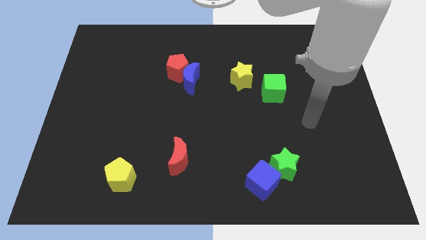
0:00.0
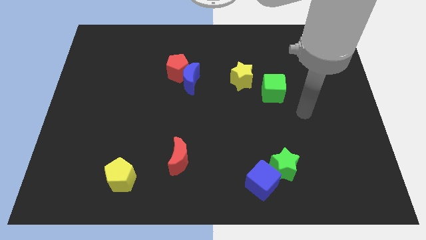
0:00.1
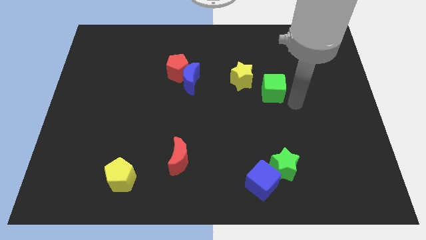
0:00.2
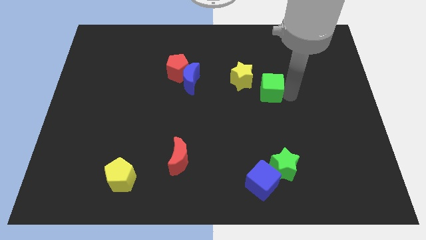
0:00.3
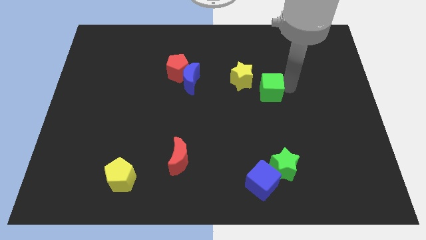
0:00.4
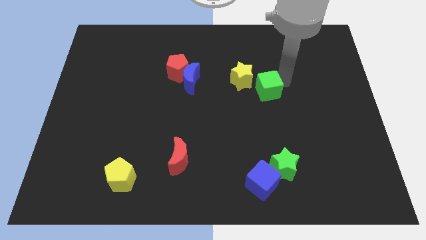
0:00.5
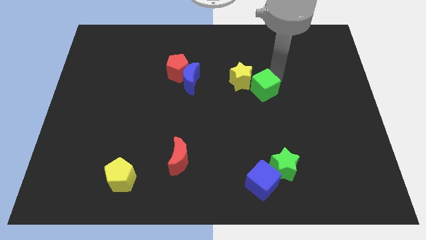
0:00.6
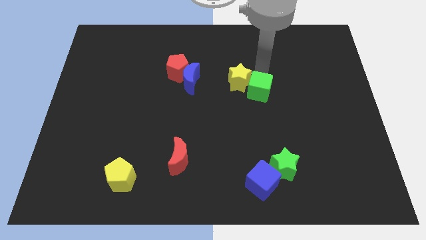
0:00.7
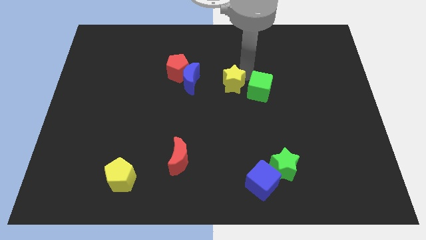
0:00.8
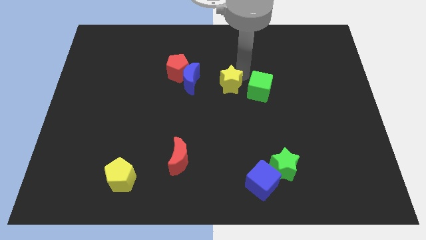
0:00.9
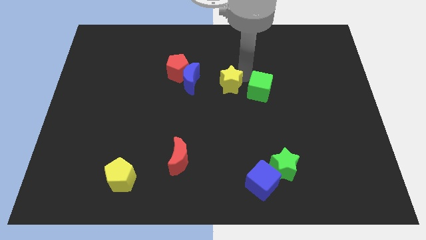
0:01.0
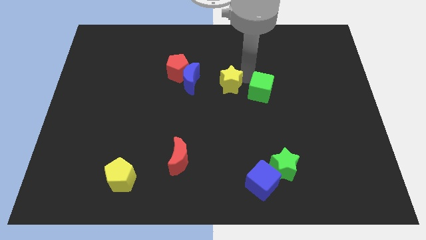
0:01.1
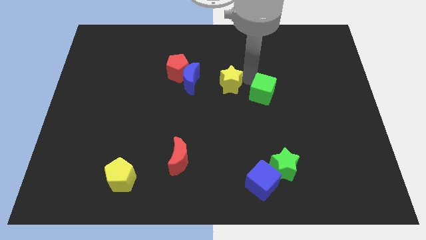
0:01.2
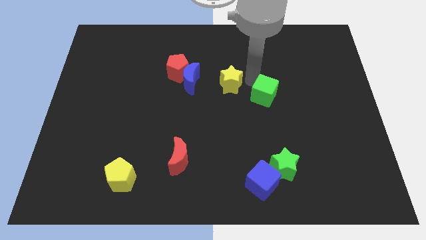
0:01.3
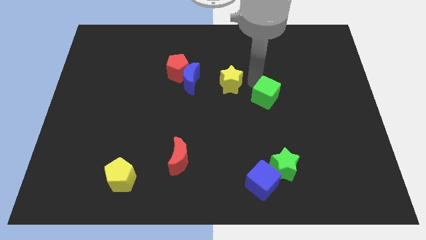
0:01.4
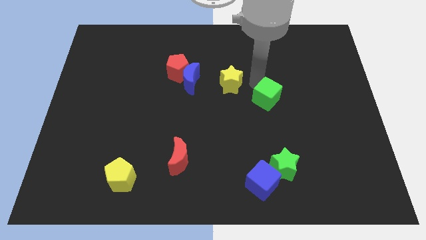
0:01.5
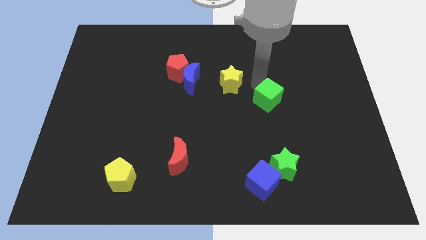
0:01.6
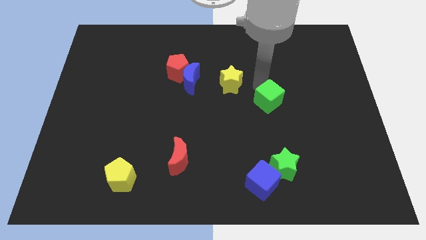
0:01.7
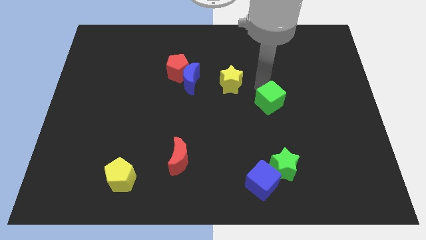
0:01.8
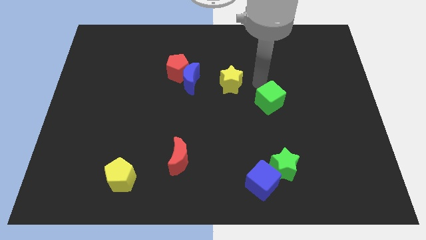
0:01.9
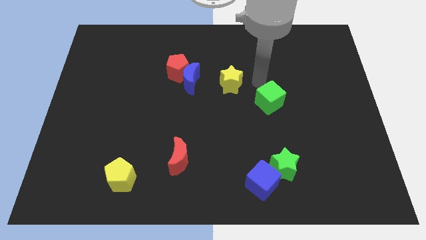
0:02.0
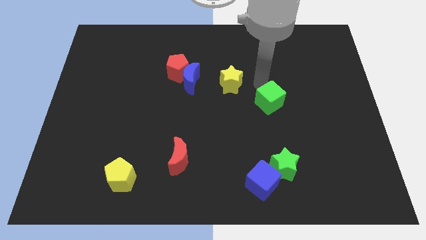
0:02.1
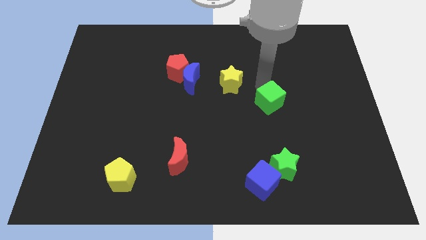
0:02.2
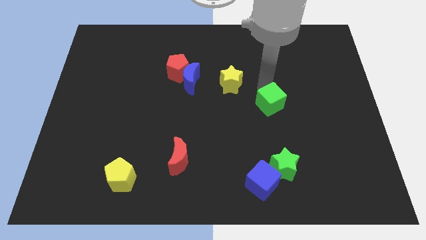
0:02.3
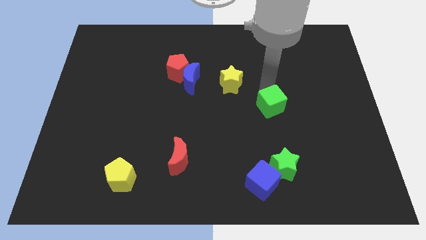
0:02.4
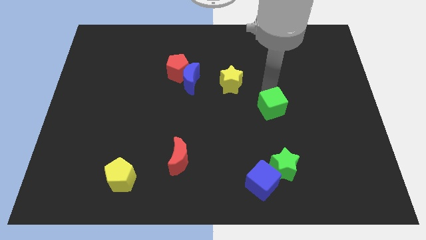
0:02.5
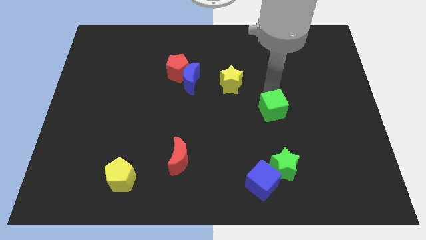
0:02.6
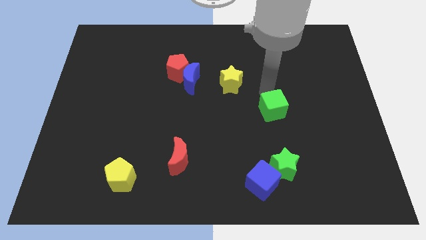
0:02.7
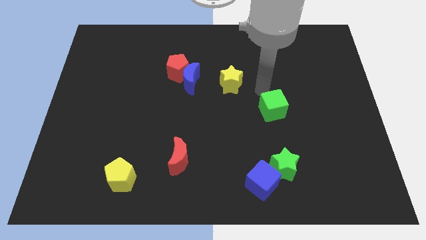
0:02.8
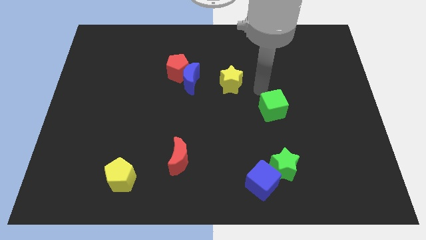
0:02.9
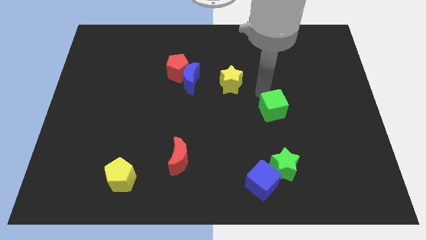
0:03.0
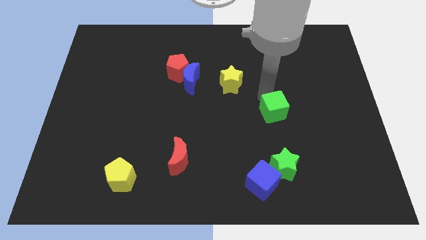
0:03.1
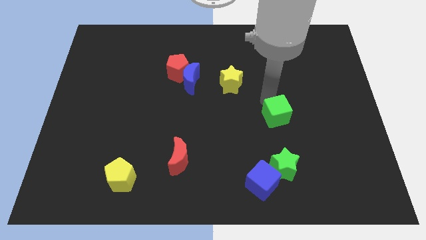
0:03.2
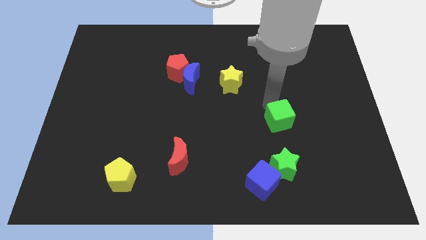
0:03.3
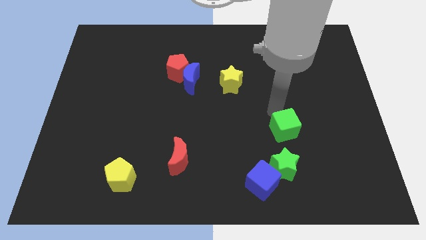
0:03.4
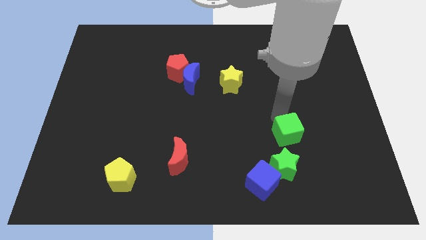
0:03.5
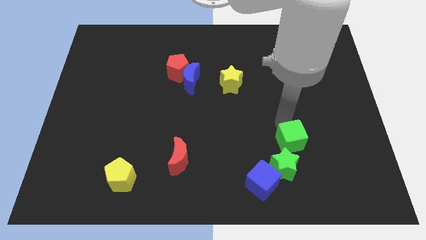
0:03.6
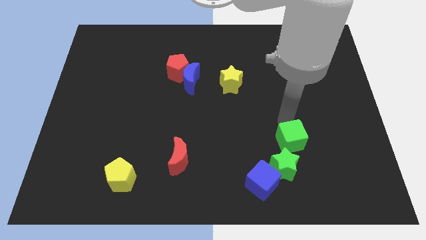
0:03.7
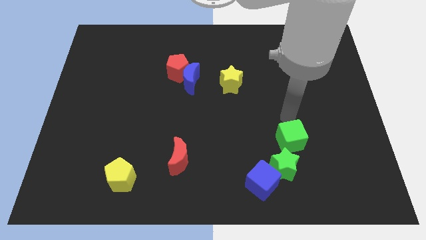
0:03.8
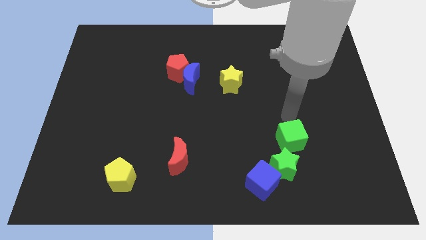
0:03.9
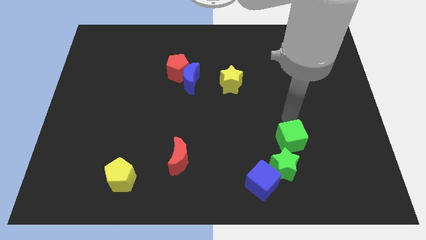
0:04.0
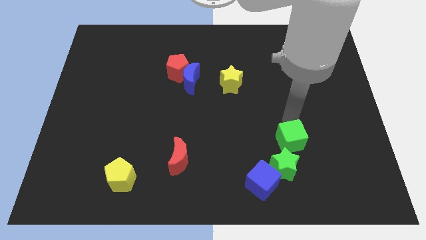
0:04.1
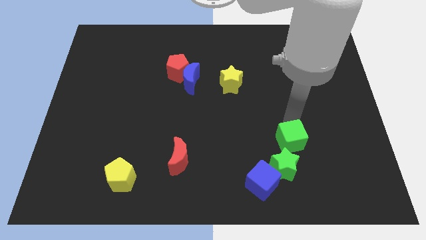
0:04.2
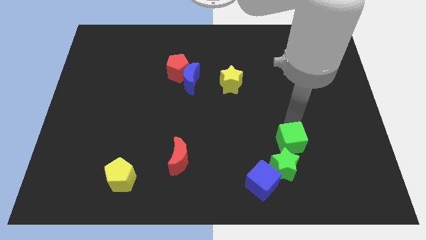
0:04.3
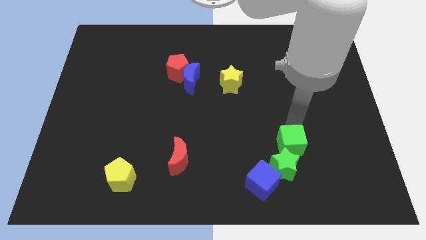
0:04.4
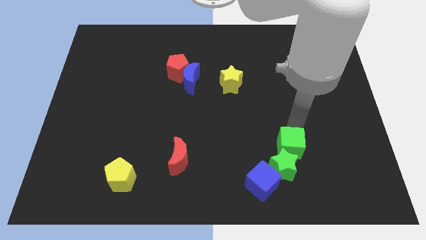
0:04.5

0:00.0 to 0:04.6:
move the green cube next to the green star

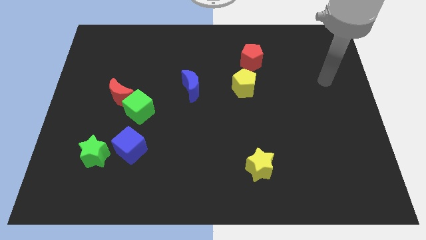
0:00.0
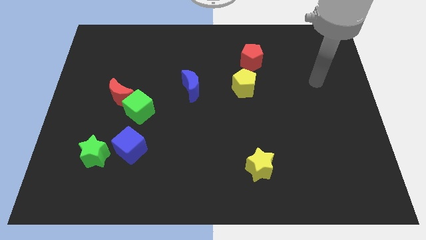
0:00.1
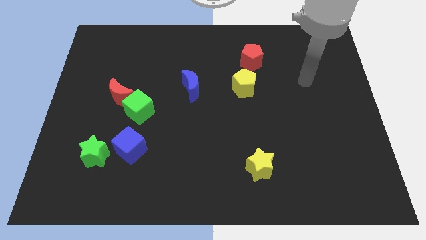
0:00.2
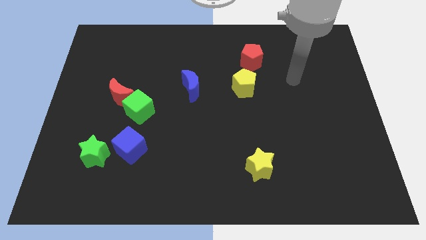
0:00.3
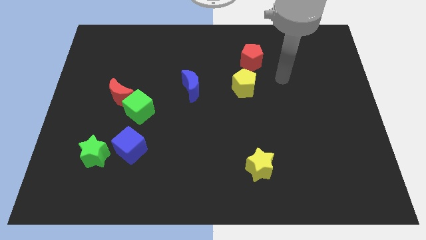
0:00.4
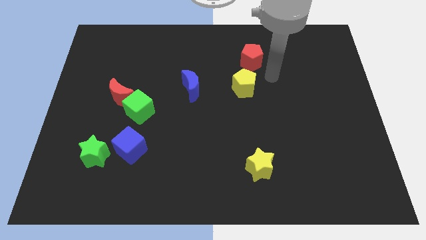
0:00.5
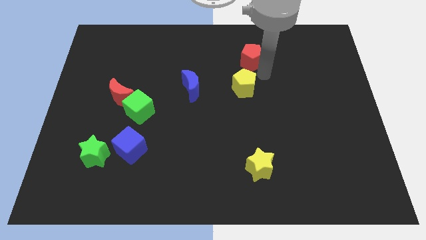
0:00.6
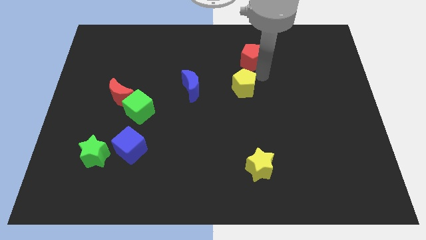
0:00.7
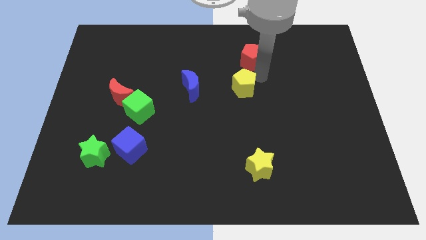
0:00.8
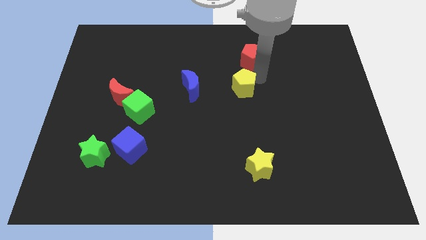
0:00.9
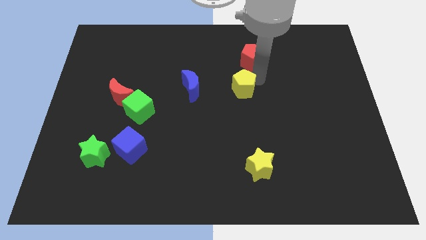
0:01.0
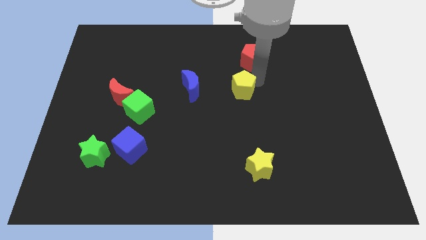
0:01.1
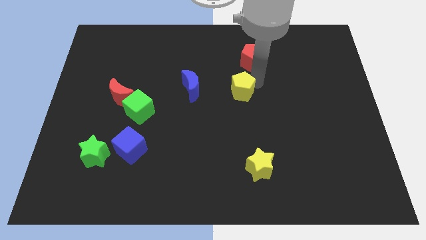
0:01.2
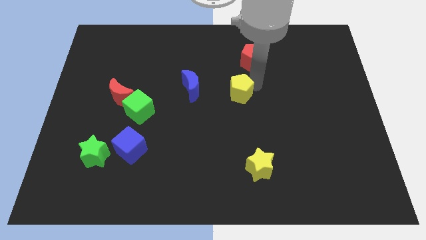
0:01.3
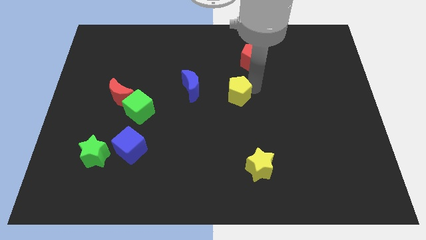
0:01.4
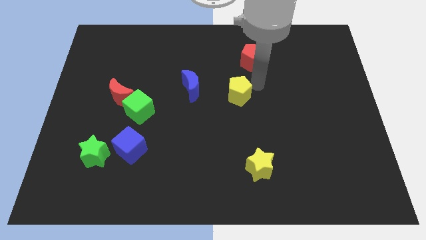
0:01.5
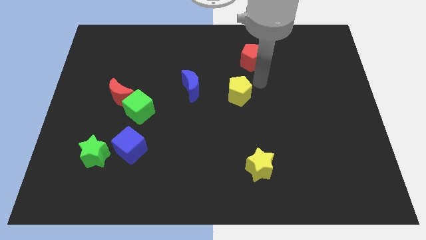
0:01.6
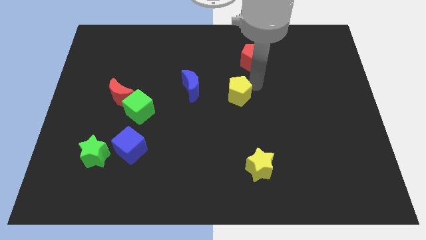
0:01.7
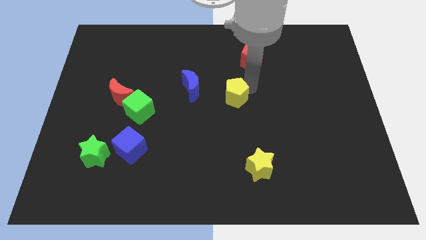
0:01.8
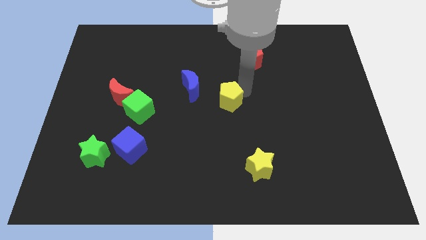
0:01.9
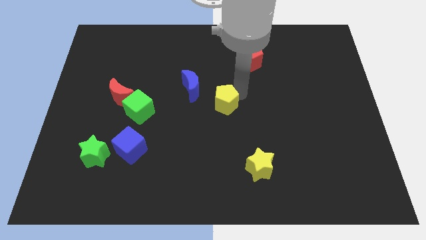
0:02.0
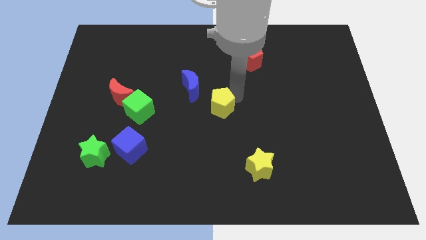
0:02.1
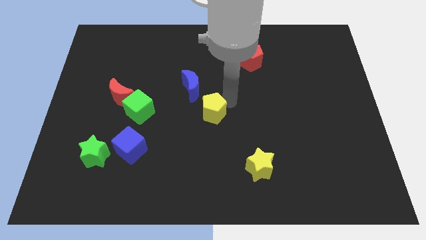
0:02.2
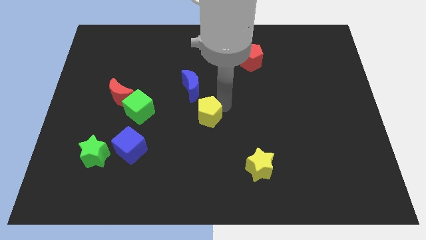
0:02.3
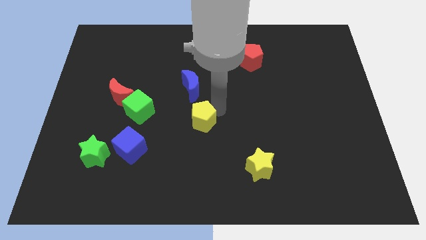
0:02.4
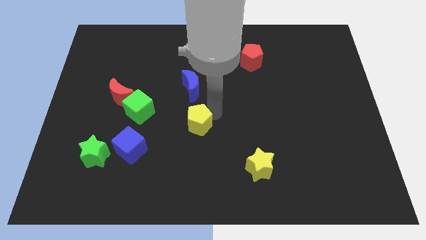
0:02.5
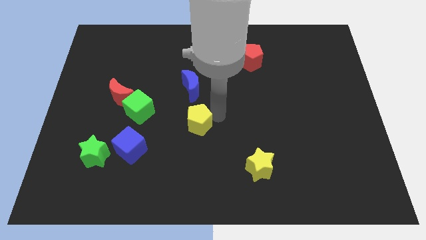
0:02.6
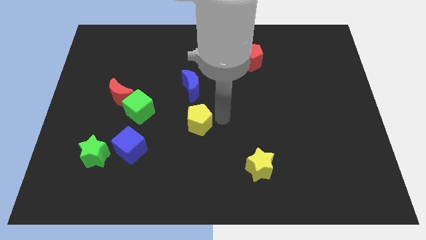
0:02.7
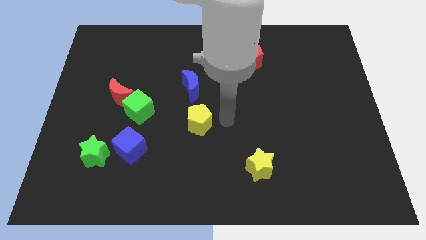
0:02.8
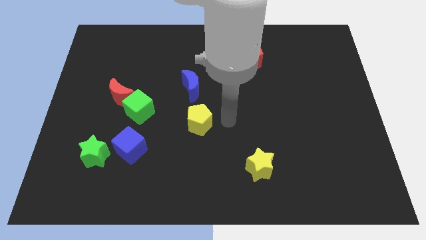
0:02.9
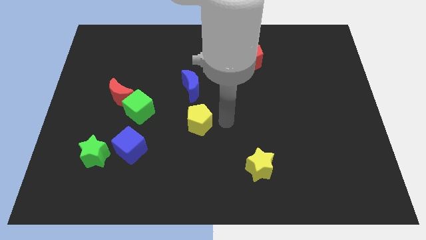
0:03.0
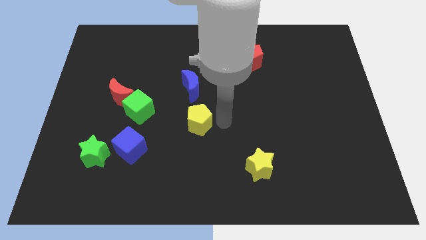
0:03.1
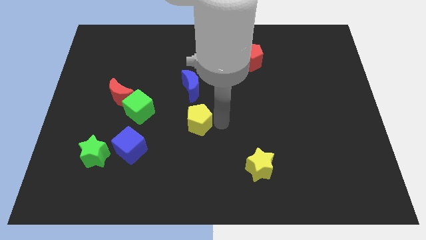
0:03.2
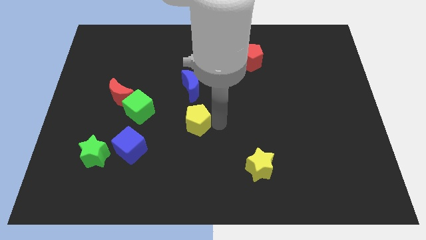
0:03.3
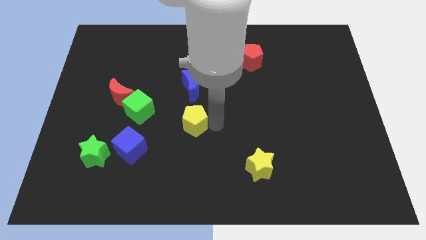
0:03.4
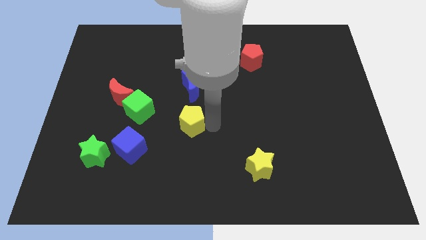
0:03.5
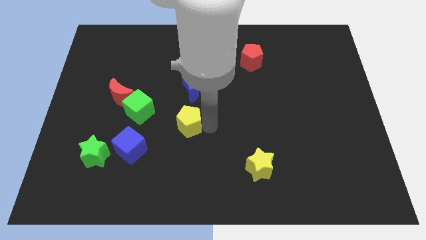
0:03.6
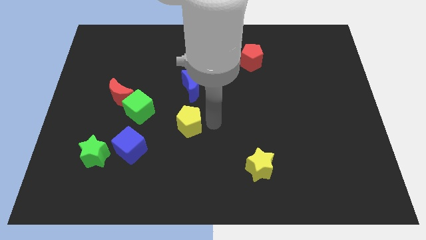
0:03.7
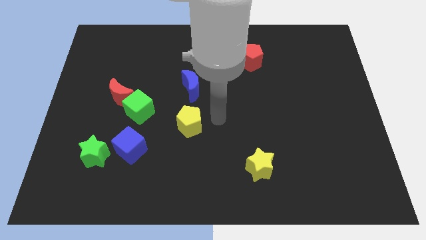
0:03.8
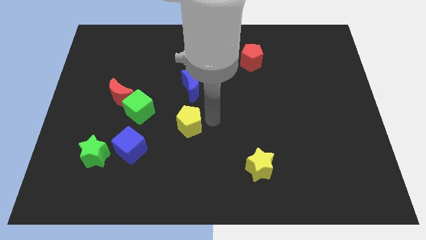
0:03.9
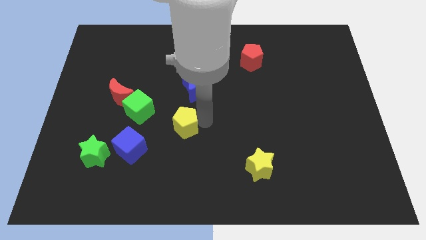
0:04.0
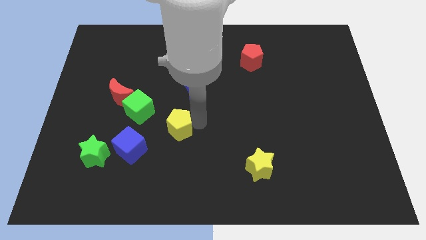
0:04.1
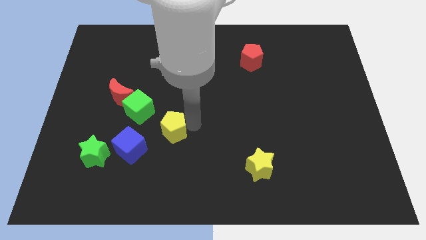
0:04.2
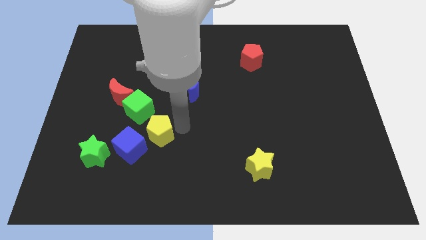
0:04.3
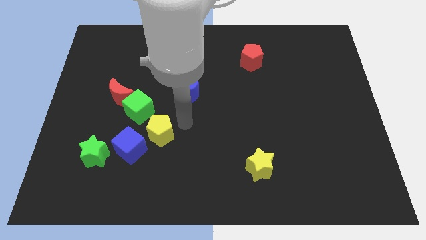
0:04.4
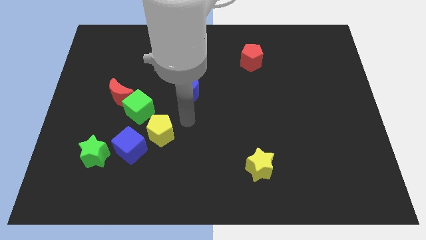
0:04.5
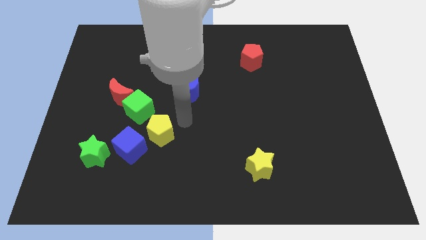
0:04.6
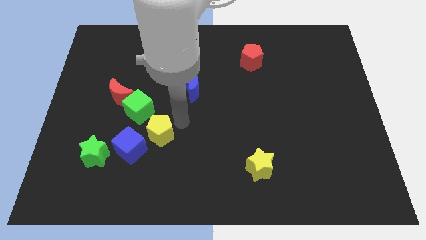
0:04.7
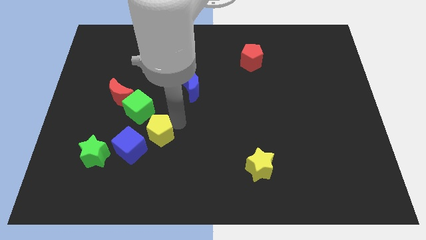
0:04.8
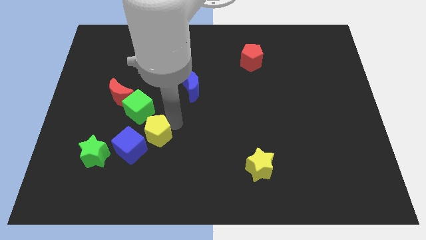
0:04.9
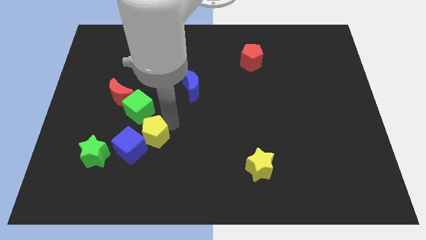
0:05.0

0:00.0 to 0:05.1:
slide the yellow pentagon towards the blue cube
